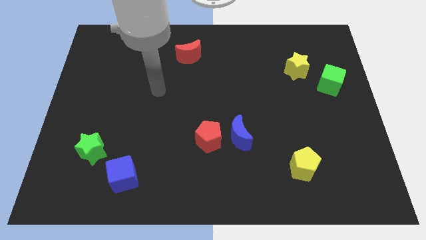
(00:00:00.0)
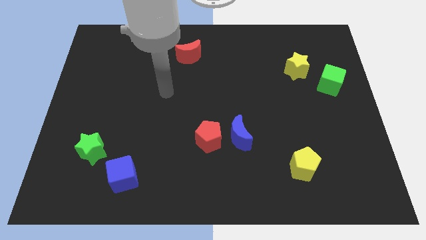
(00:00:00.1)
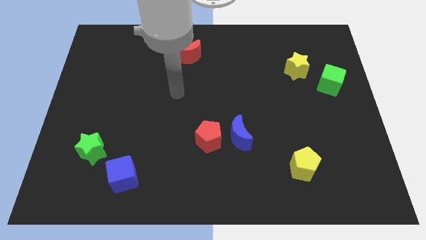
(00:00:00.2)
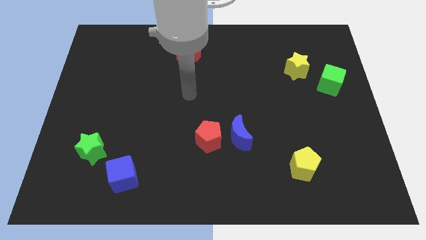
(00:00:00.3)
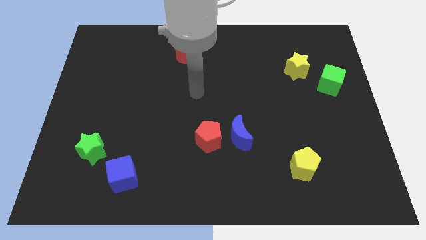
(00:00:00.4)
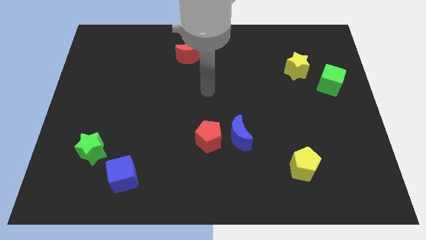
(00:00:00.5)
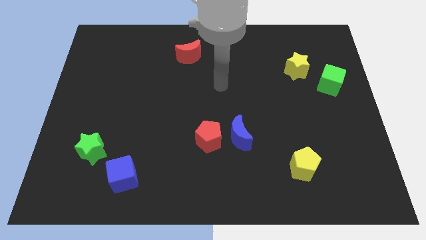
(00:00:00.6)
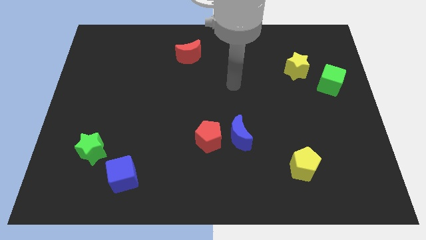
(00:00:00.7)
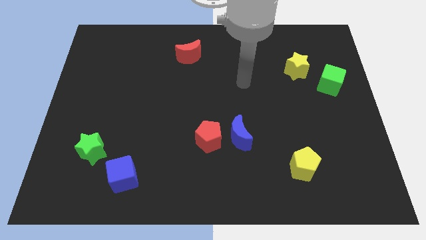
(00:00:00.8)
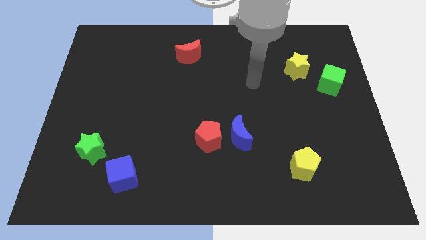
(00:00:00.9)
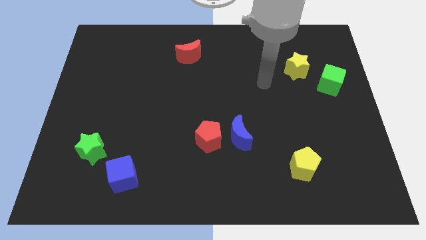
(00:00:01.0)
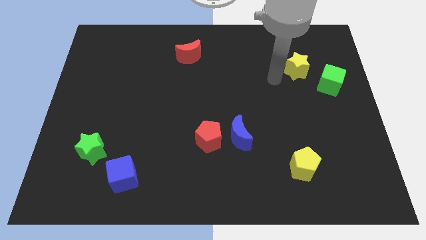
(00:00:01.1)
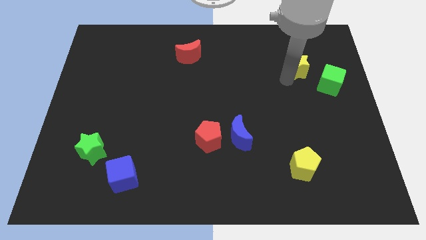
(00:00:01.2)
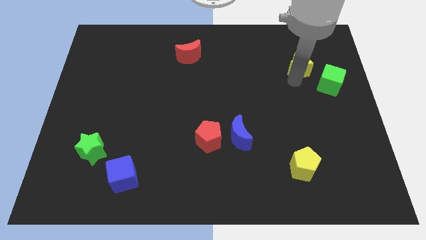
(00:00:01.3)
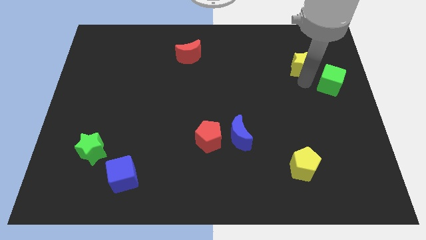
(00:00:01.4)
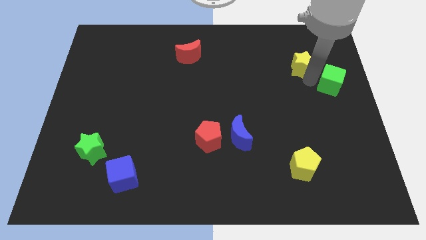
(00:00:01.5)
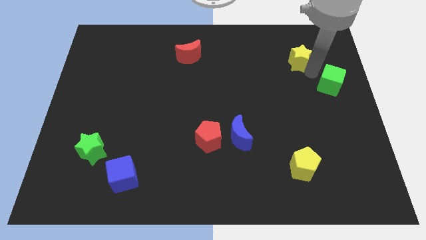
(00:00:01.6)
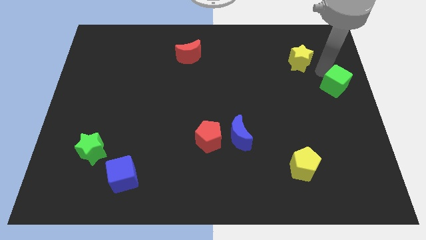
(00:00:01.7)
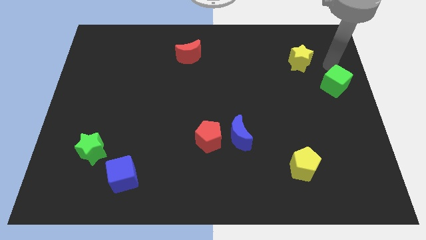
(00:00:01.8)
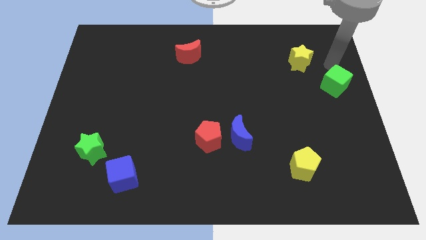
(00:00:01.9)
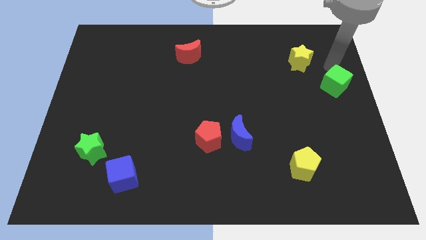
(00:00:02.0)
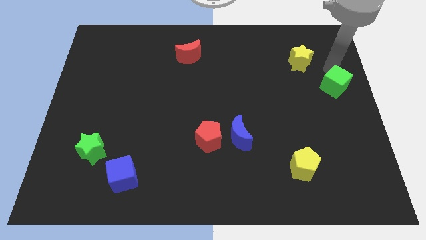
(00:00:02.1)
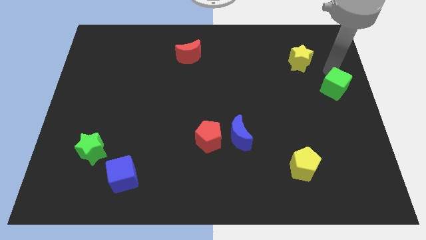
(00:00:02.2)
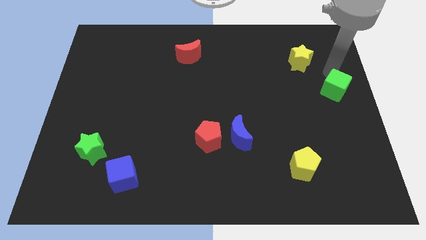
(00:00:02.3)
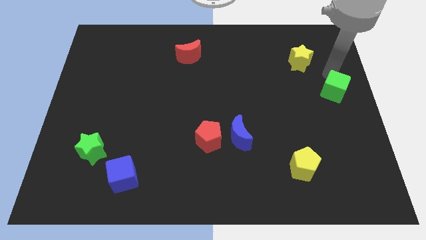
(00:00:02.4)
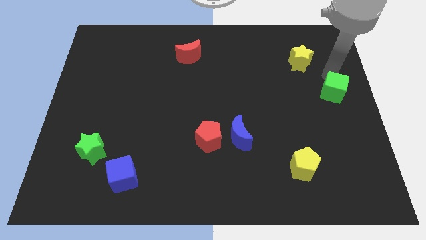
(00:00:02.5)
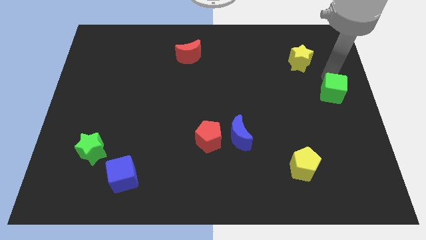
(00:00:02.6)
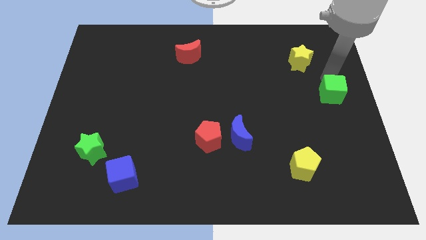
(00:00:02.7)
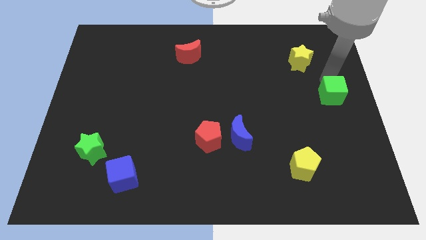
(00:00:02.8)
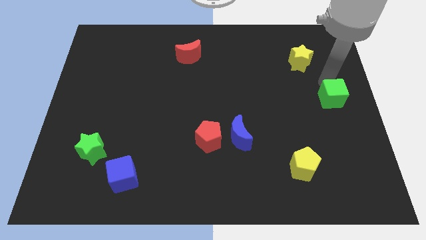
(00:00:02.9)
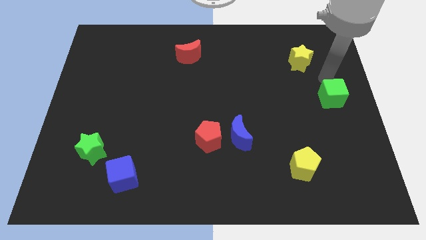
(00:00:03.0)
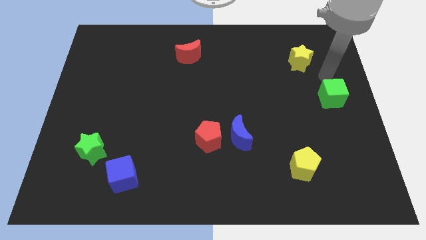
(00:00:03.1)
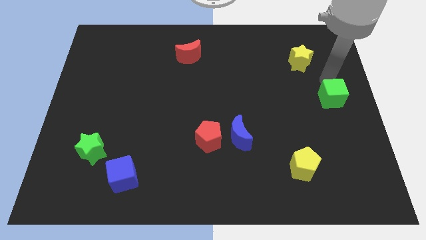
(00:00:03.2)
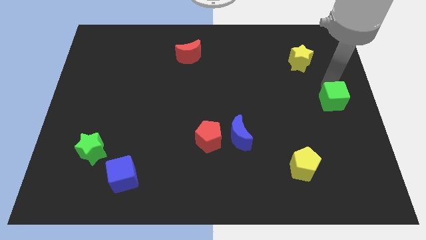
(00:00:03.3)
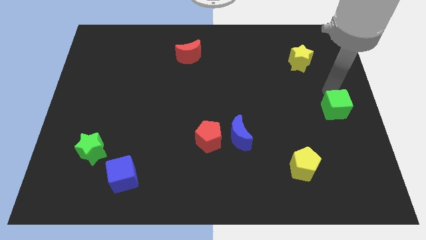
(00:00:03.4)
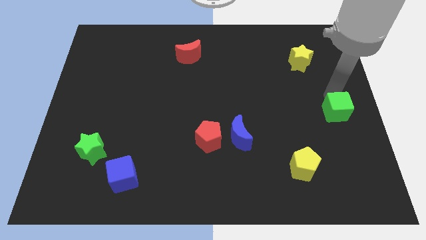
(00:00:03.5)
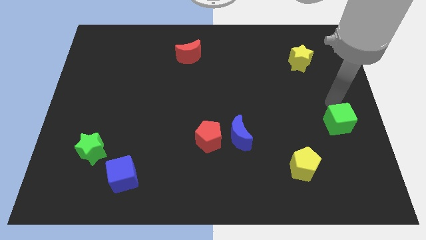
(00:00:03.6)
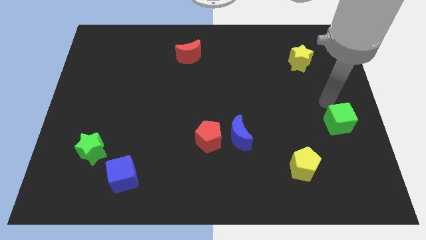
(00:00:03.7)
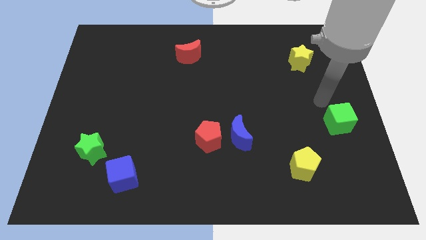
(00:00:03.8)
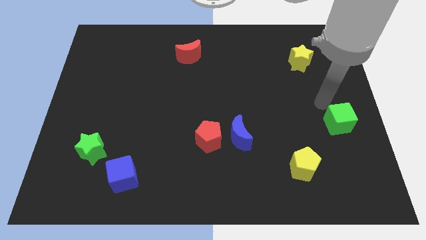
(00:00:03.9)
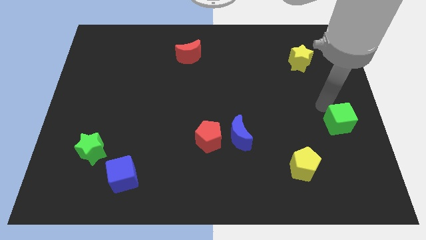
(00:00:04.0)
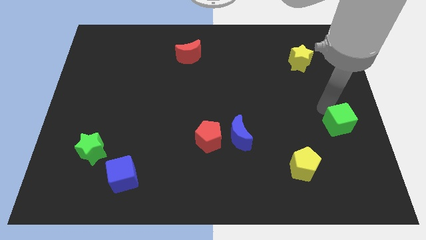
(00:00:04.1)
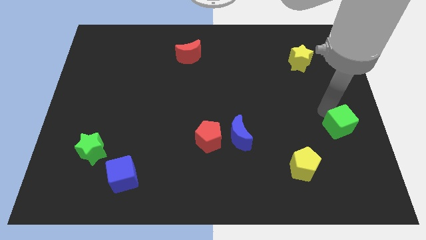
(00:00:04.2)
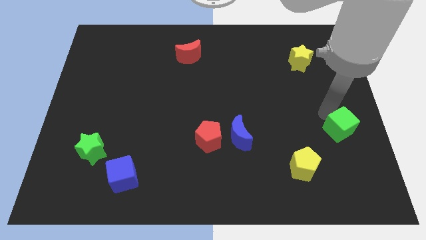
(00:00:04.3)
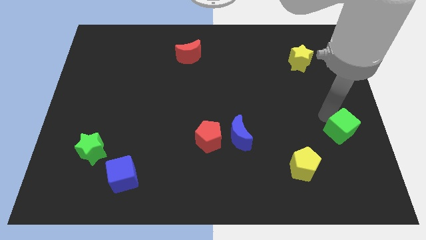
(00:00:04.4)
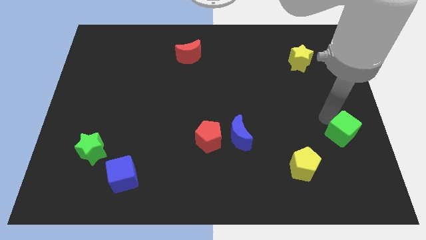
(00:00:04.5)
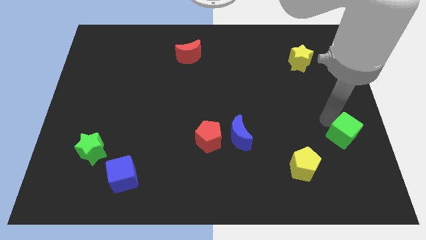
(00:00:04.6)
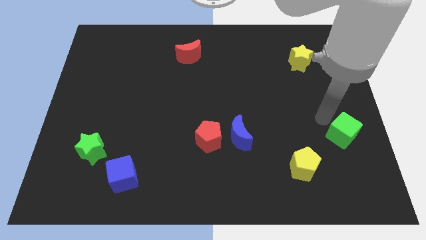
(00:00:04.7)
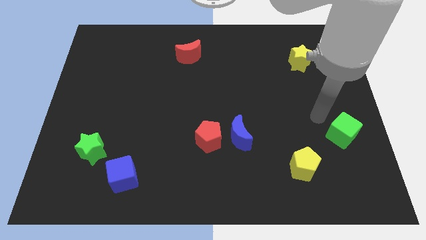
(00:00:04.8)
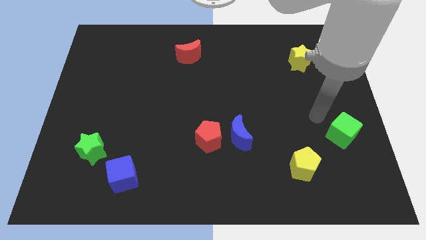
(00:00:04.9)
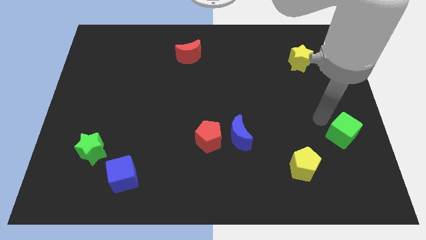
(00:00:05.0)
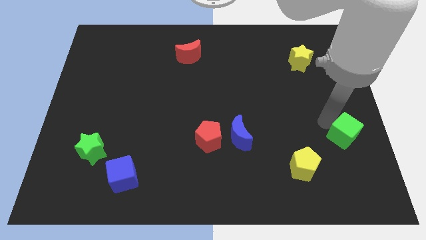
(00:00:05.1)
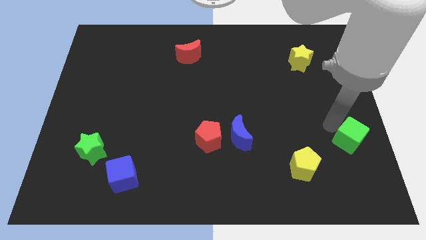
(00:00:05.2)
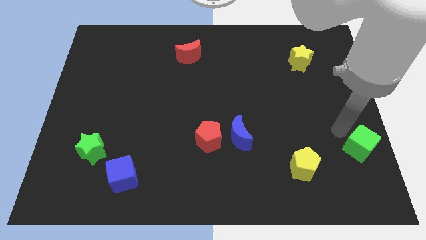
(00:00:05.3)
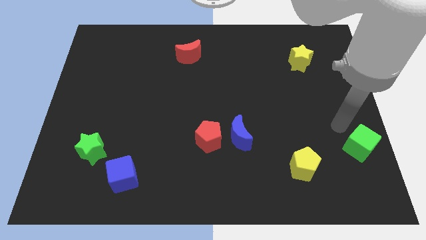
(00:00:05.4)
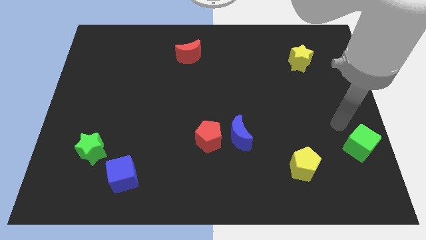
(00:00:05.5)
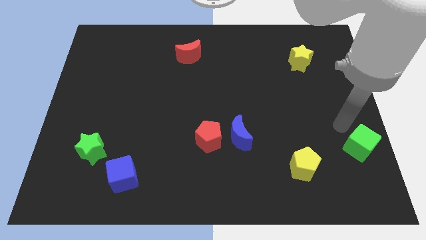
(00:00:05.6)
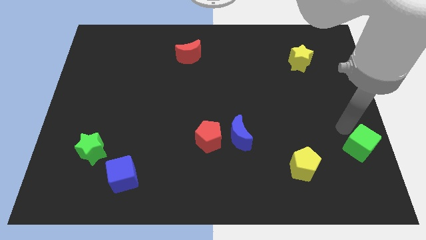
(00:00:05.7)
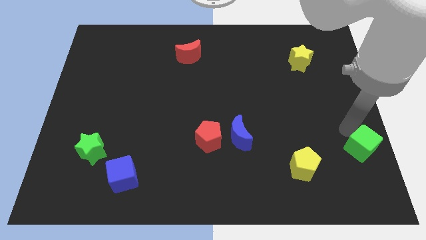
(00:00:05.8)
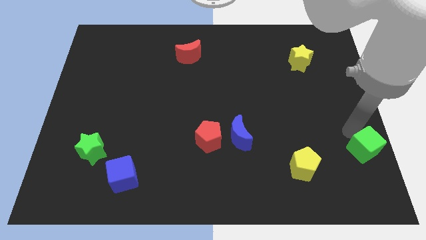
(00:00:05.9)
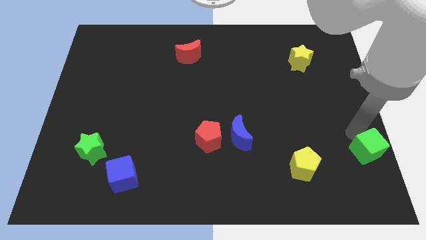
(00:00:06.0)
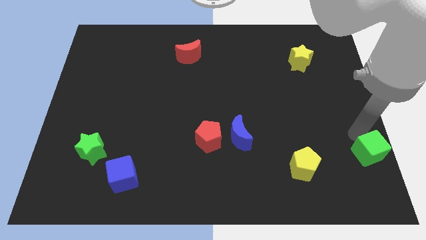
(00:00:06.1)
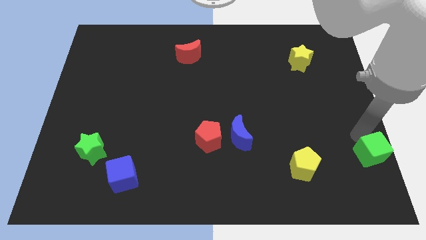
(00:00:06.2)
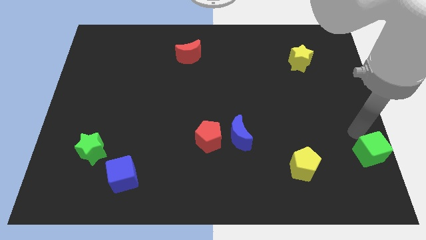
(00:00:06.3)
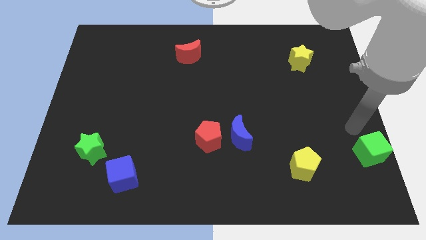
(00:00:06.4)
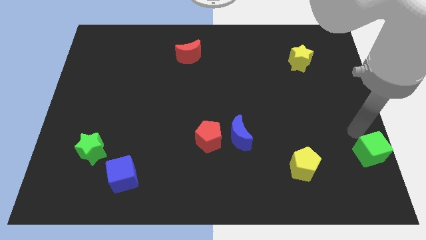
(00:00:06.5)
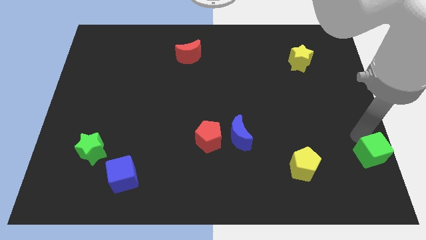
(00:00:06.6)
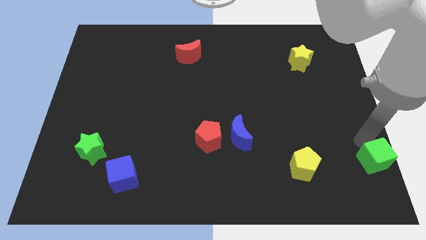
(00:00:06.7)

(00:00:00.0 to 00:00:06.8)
slide the green cube to the bottom right

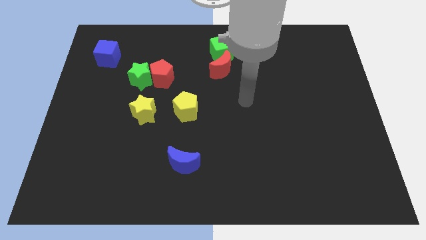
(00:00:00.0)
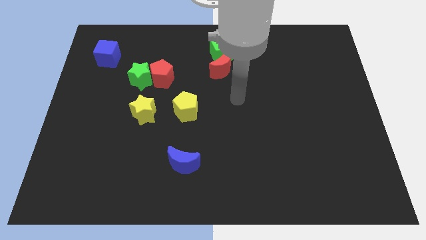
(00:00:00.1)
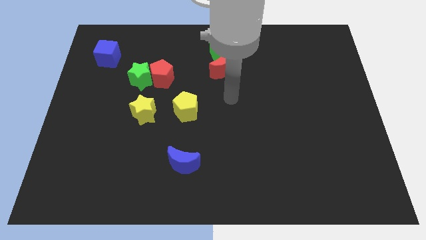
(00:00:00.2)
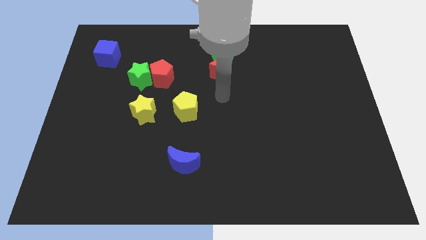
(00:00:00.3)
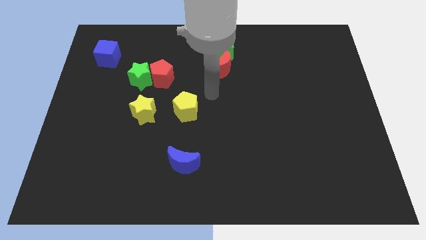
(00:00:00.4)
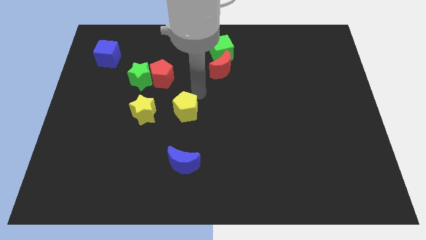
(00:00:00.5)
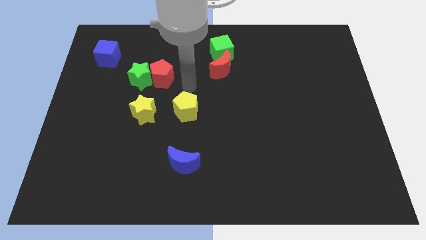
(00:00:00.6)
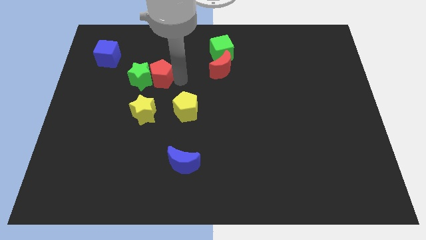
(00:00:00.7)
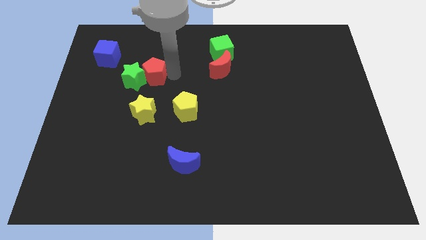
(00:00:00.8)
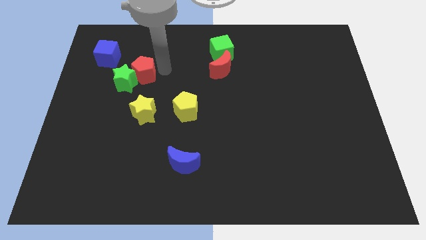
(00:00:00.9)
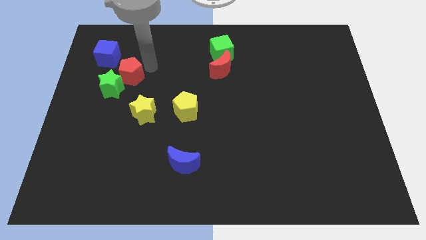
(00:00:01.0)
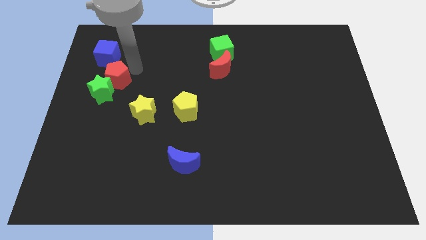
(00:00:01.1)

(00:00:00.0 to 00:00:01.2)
push the green star to the center left
